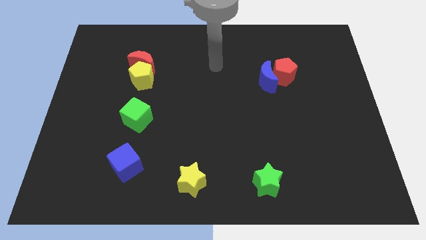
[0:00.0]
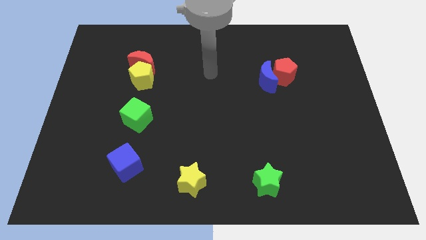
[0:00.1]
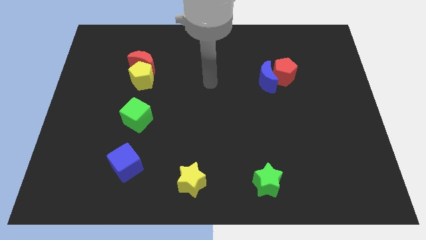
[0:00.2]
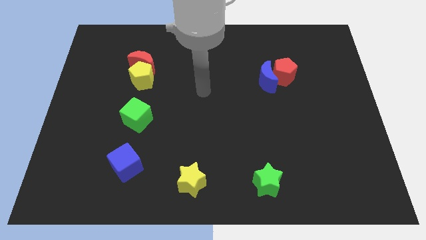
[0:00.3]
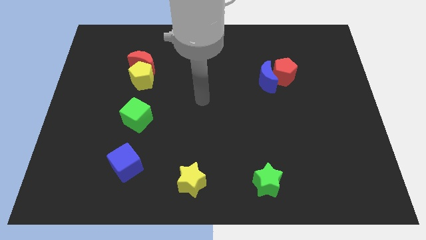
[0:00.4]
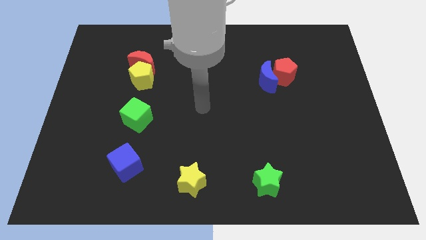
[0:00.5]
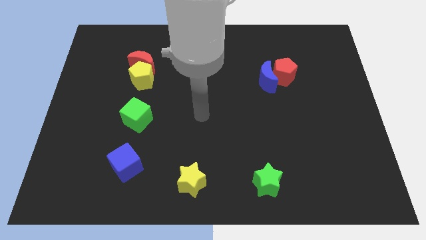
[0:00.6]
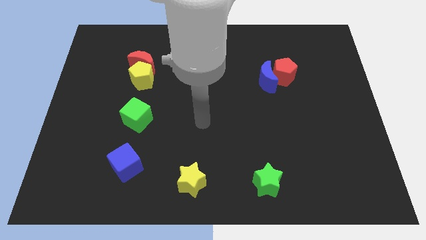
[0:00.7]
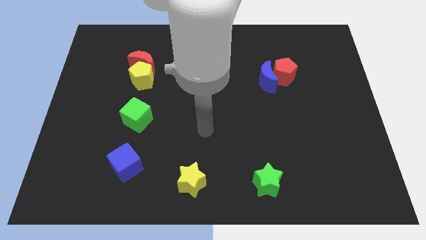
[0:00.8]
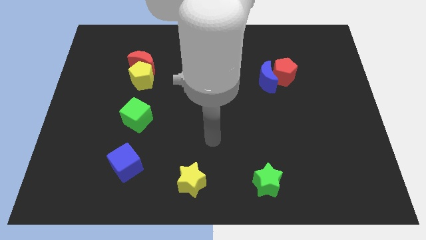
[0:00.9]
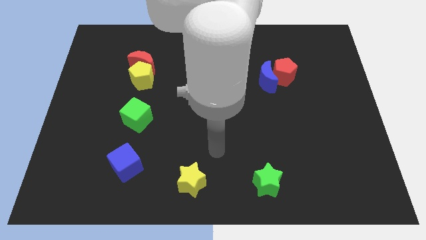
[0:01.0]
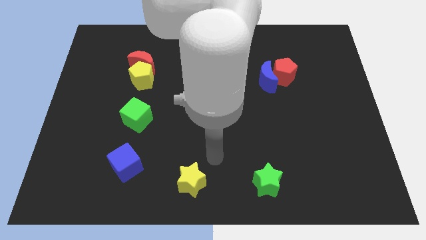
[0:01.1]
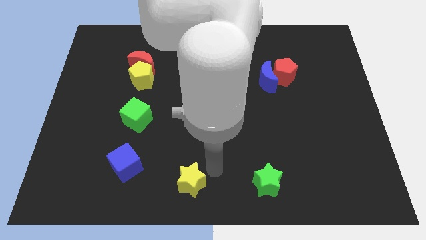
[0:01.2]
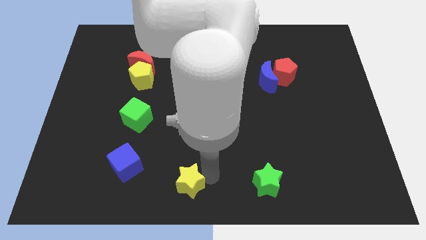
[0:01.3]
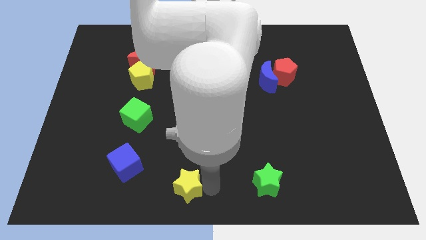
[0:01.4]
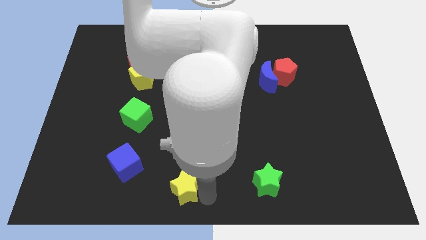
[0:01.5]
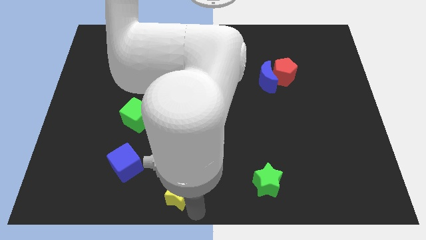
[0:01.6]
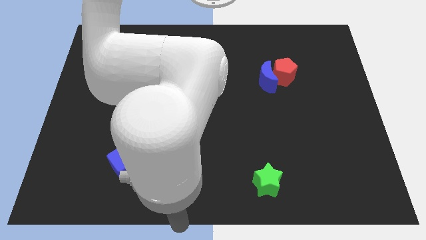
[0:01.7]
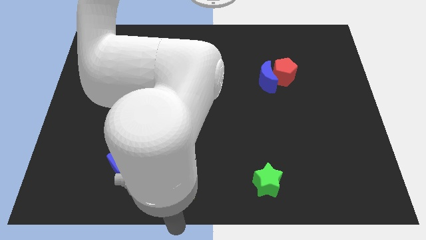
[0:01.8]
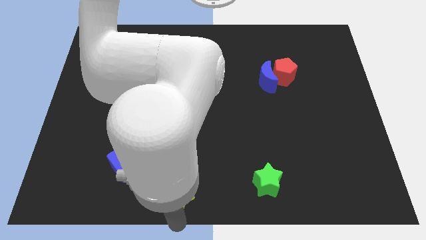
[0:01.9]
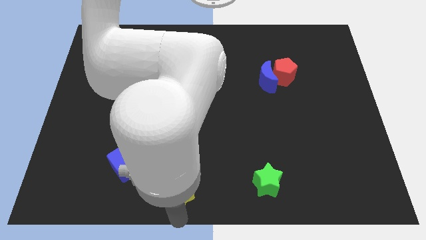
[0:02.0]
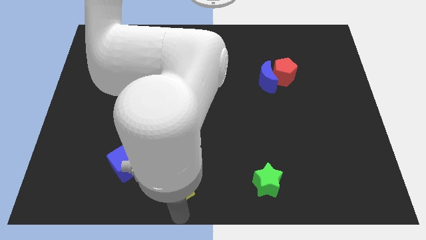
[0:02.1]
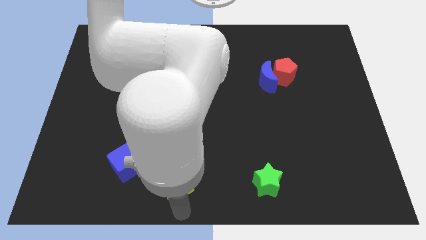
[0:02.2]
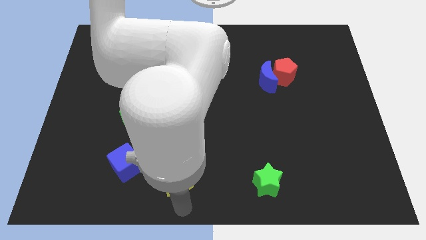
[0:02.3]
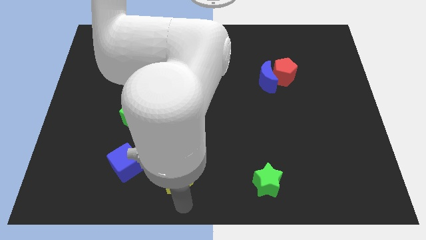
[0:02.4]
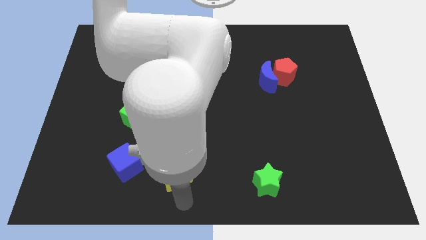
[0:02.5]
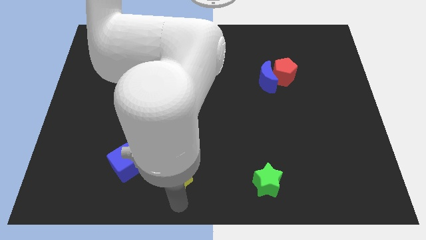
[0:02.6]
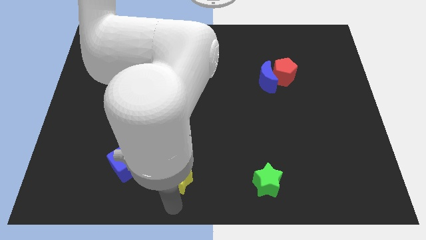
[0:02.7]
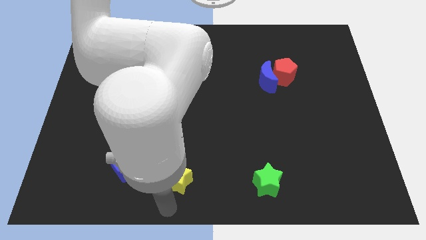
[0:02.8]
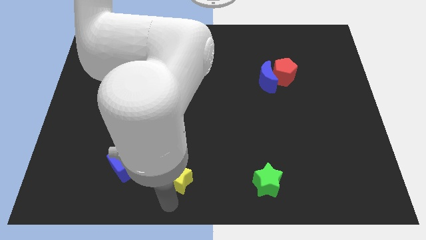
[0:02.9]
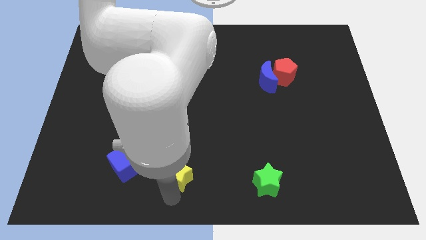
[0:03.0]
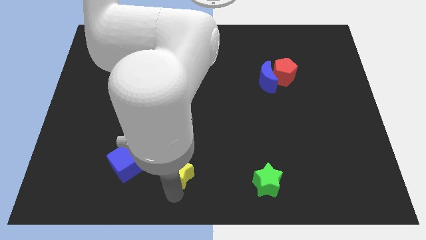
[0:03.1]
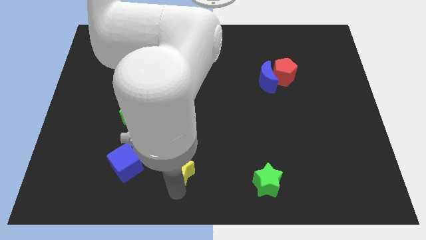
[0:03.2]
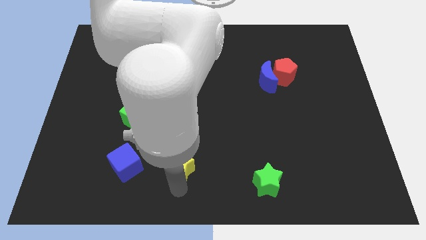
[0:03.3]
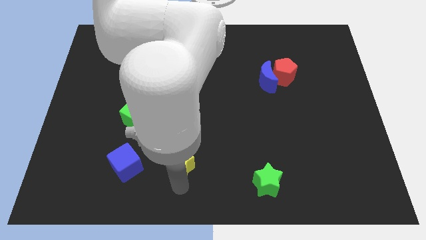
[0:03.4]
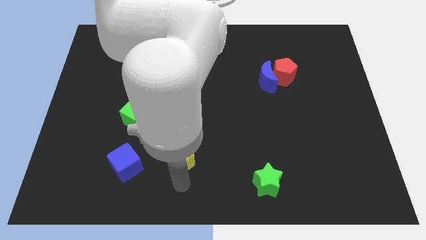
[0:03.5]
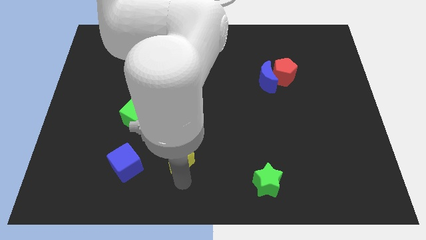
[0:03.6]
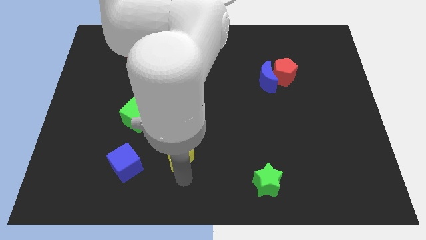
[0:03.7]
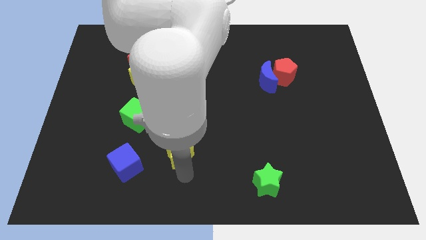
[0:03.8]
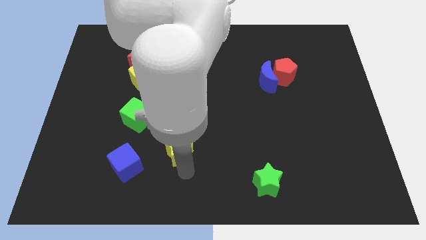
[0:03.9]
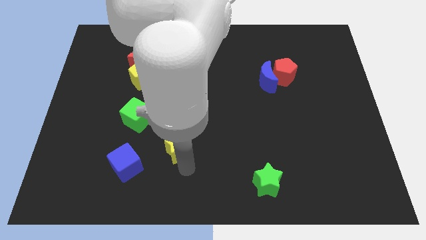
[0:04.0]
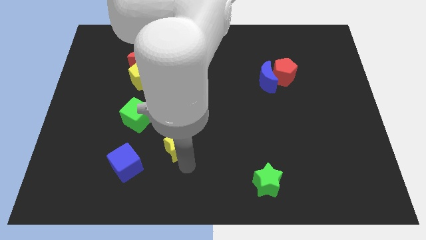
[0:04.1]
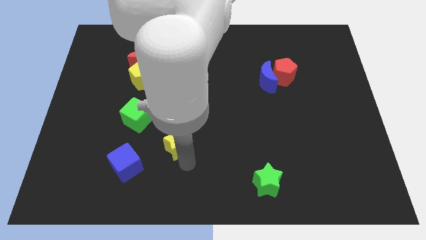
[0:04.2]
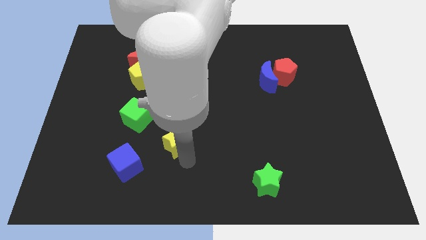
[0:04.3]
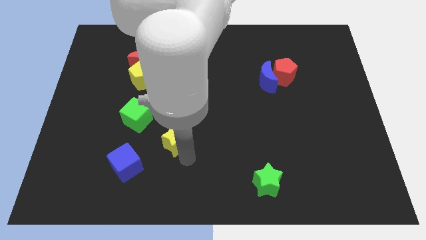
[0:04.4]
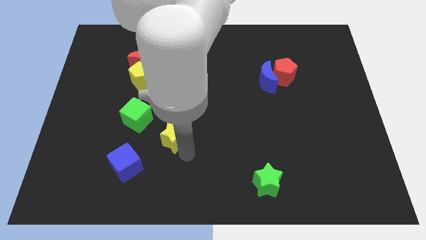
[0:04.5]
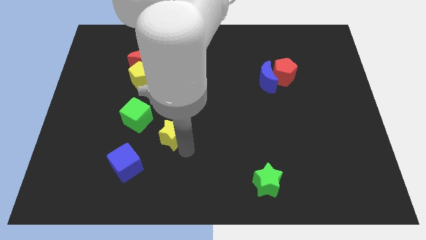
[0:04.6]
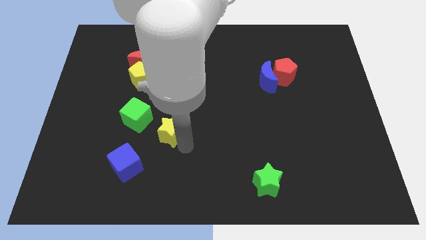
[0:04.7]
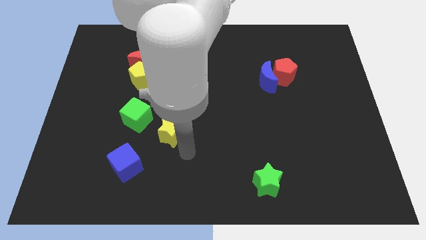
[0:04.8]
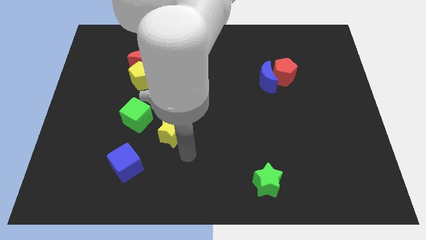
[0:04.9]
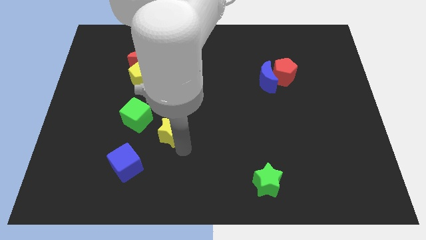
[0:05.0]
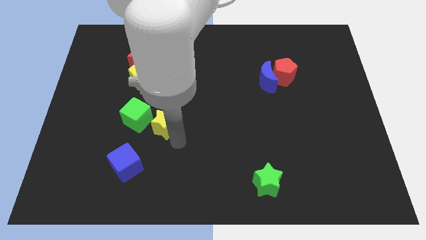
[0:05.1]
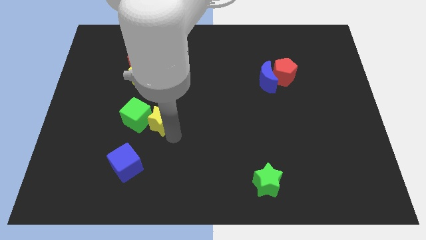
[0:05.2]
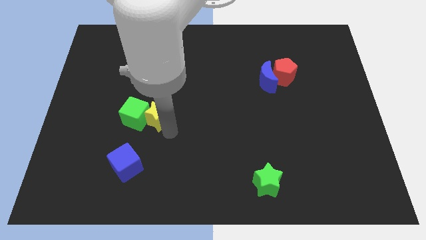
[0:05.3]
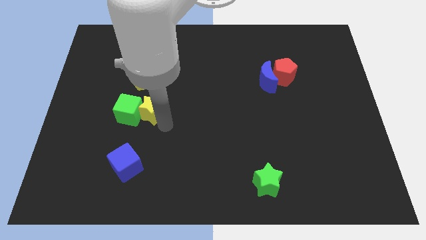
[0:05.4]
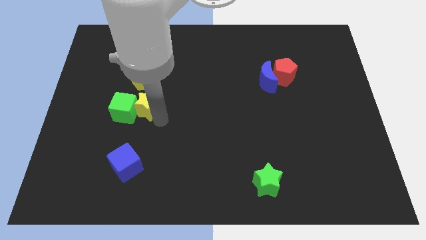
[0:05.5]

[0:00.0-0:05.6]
put the yellow star to the bottom of the red moon
